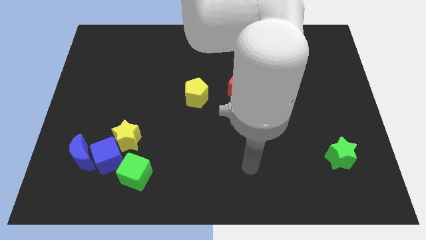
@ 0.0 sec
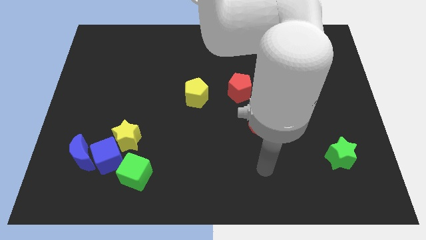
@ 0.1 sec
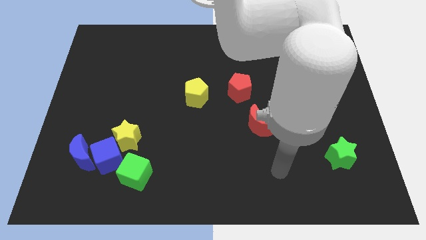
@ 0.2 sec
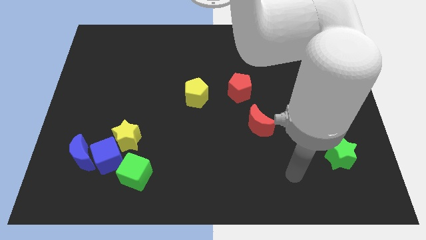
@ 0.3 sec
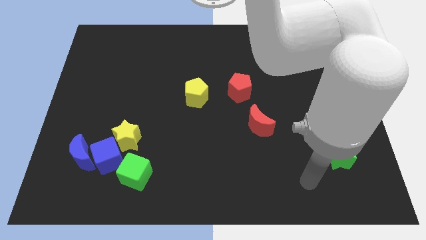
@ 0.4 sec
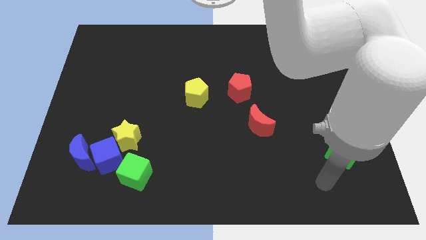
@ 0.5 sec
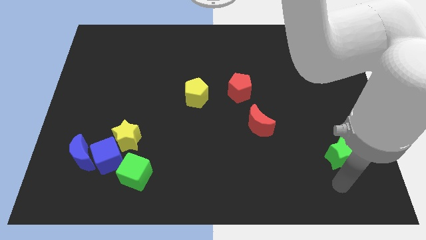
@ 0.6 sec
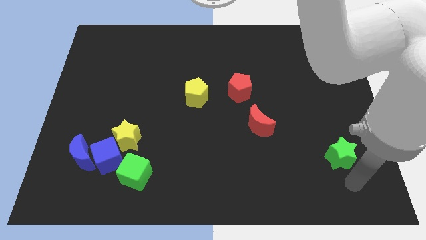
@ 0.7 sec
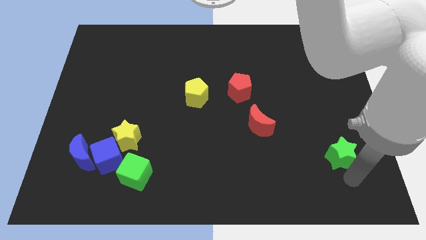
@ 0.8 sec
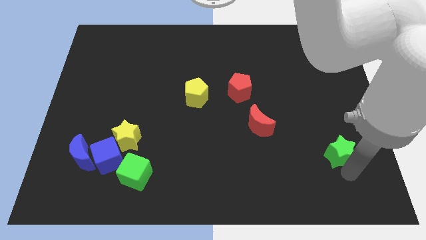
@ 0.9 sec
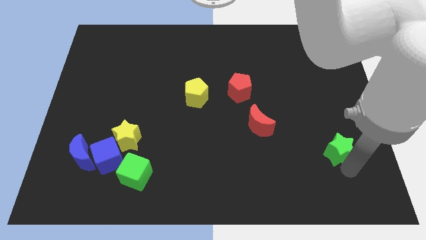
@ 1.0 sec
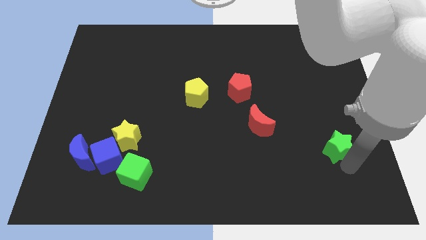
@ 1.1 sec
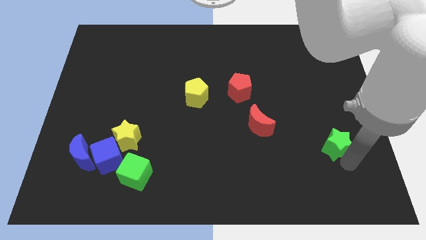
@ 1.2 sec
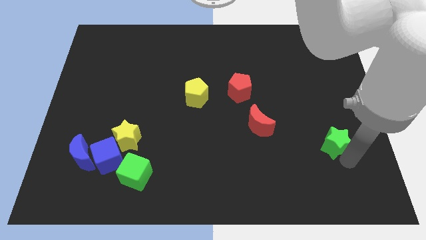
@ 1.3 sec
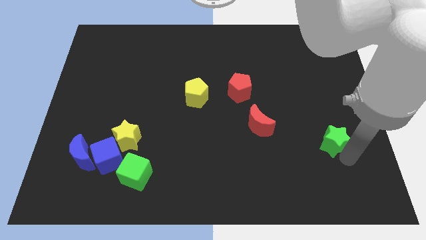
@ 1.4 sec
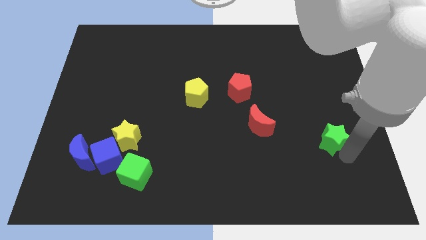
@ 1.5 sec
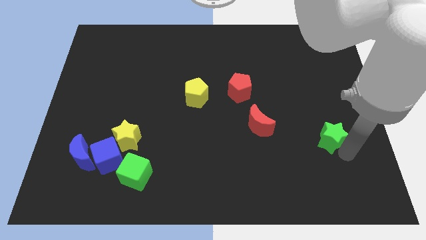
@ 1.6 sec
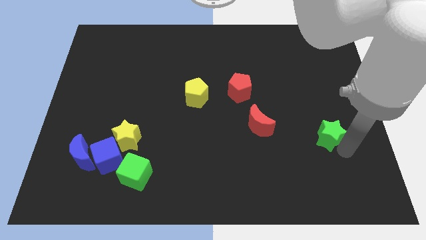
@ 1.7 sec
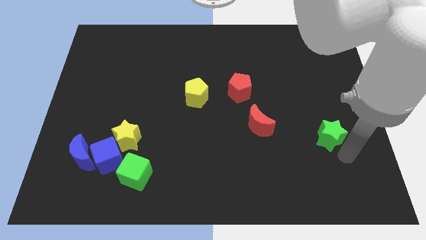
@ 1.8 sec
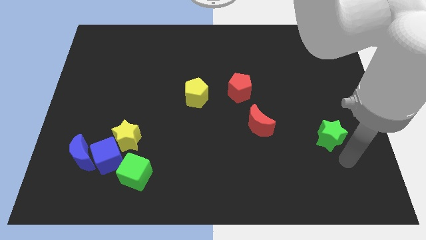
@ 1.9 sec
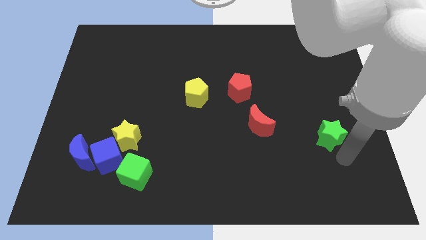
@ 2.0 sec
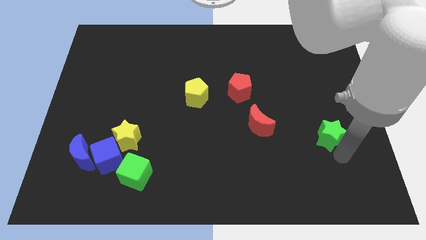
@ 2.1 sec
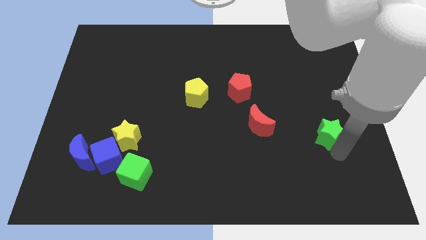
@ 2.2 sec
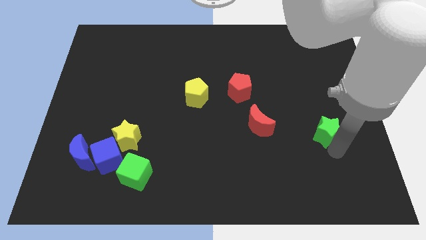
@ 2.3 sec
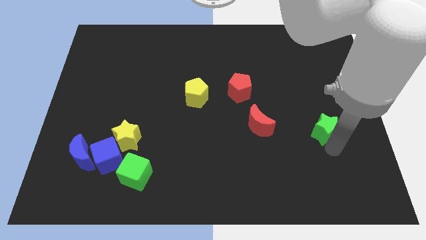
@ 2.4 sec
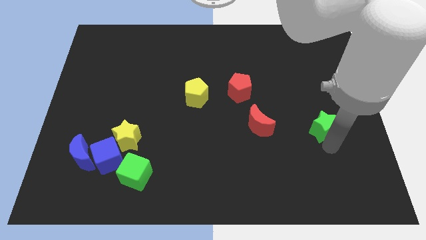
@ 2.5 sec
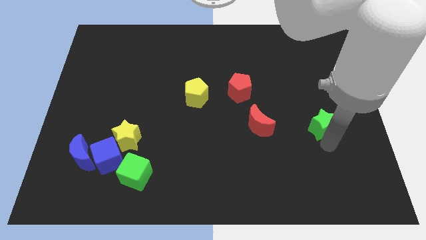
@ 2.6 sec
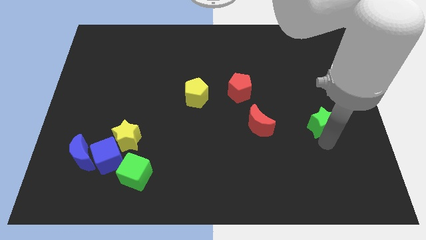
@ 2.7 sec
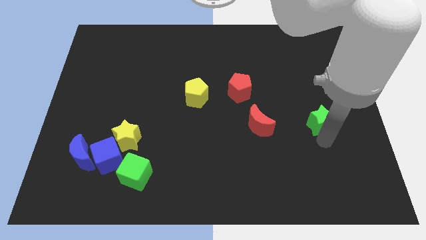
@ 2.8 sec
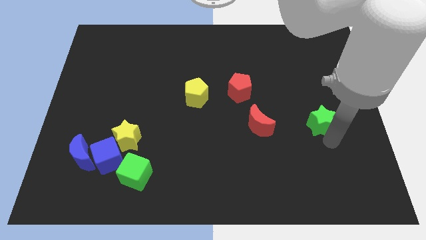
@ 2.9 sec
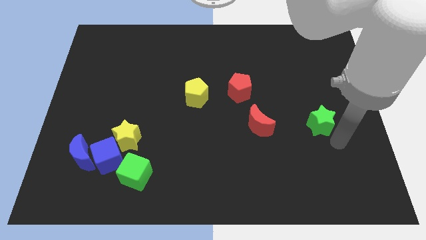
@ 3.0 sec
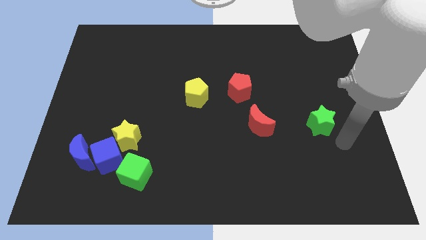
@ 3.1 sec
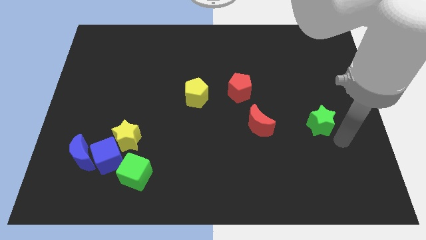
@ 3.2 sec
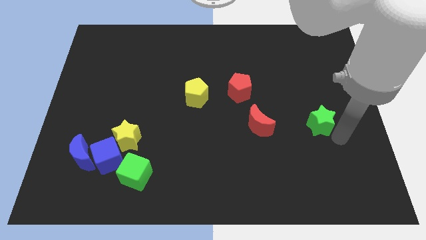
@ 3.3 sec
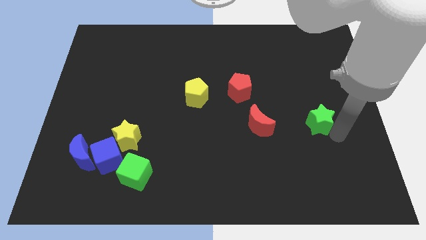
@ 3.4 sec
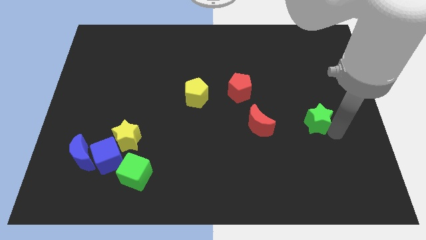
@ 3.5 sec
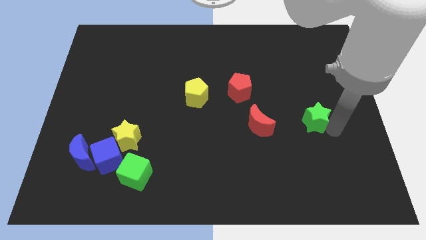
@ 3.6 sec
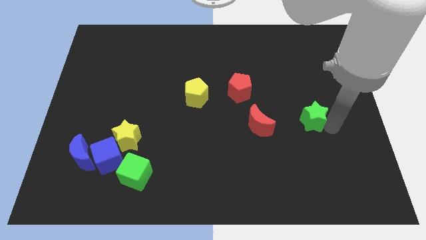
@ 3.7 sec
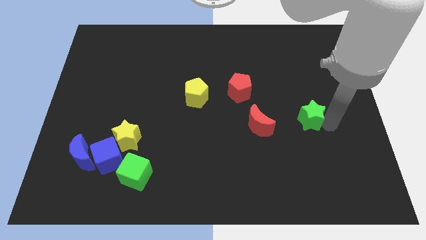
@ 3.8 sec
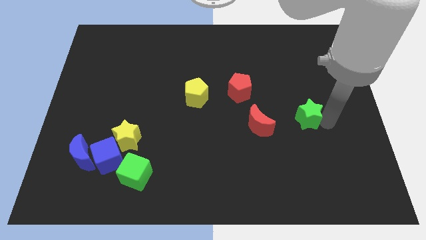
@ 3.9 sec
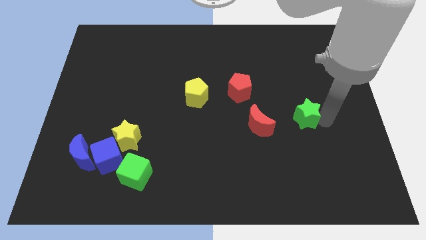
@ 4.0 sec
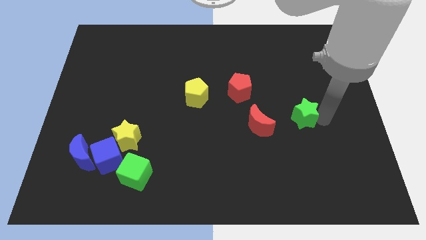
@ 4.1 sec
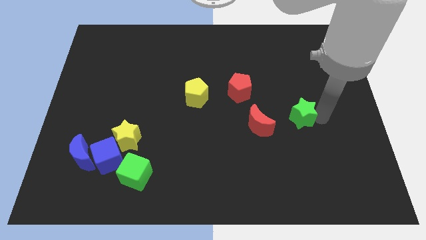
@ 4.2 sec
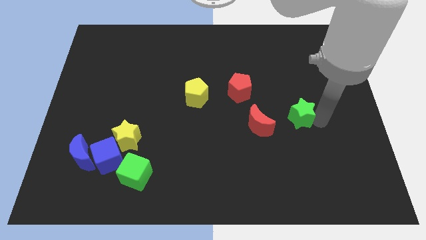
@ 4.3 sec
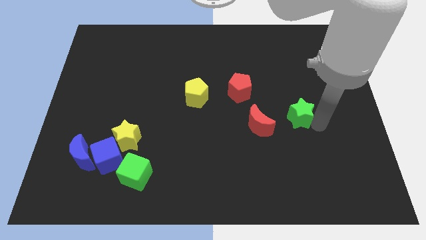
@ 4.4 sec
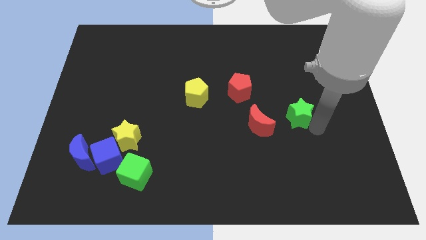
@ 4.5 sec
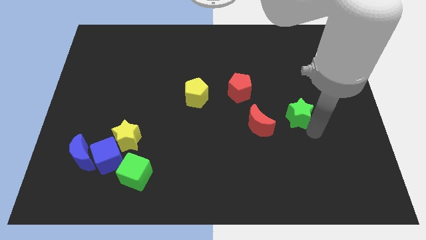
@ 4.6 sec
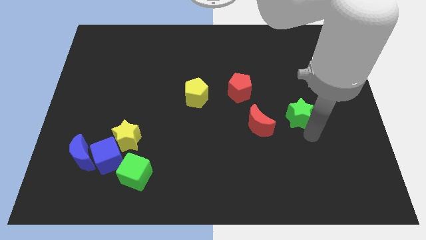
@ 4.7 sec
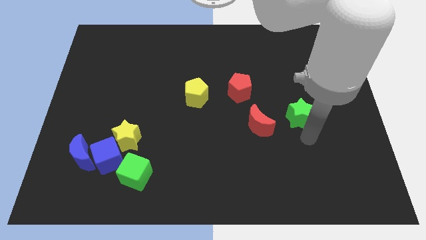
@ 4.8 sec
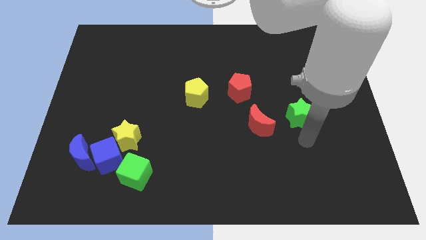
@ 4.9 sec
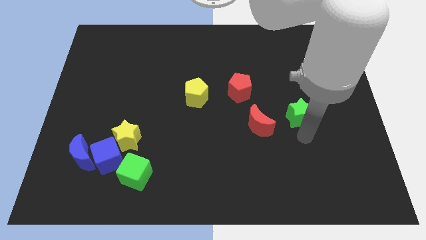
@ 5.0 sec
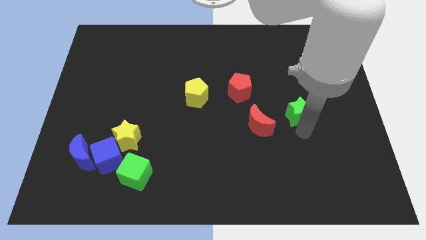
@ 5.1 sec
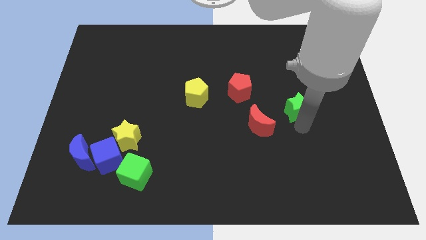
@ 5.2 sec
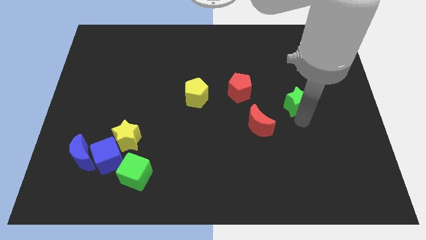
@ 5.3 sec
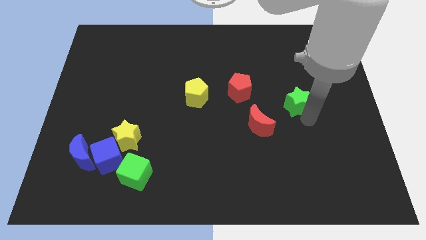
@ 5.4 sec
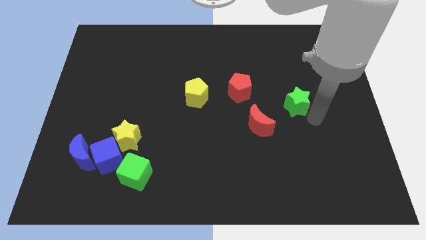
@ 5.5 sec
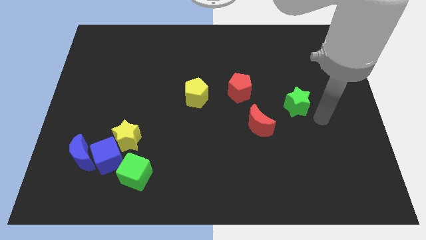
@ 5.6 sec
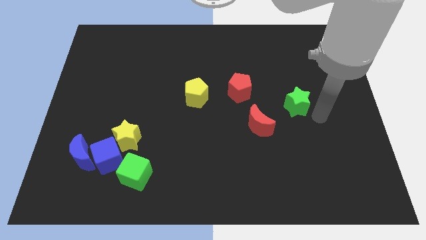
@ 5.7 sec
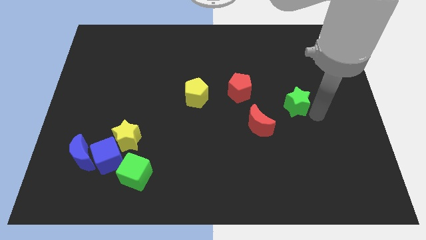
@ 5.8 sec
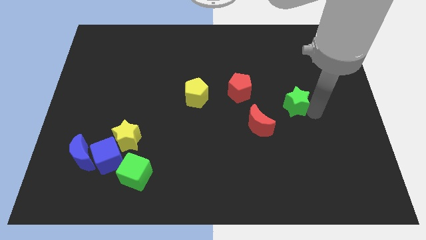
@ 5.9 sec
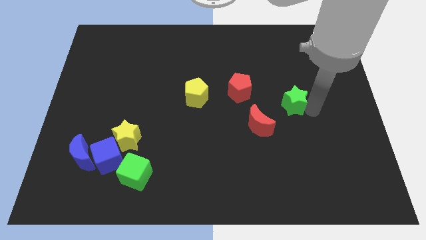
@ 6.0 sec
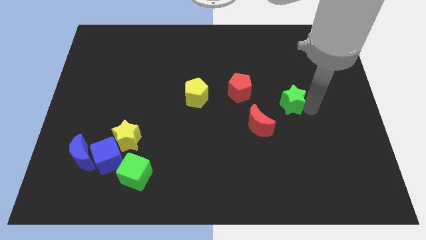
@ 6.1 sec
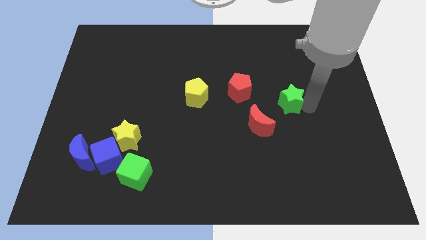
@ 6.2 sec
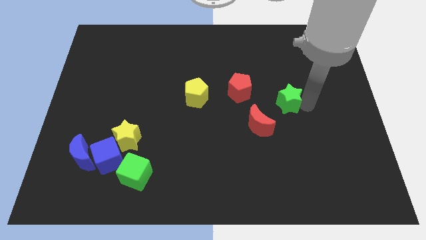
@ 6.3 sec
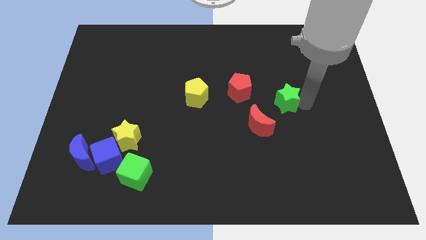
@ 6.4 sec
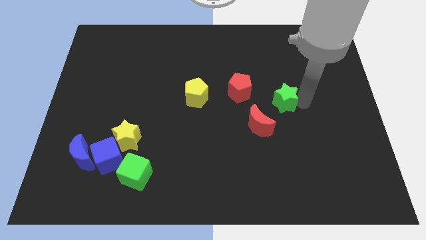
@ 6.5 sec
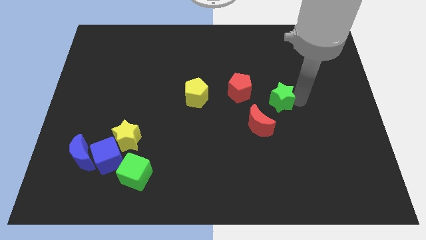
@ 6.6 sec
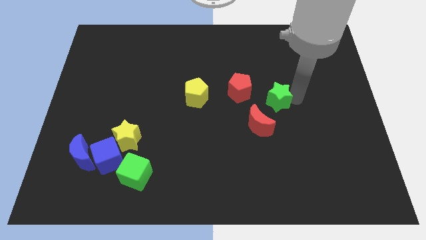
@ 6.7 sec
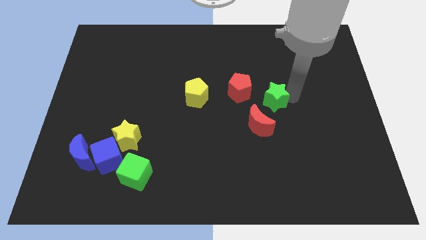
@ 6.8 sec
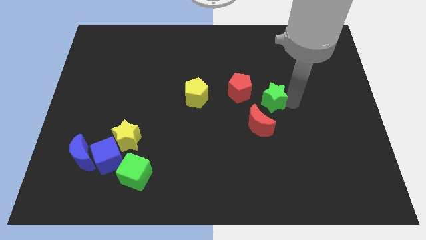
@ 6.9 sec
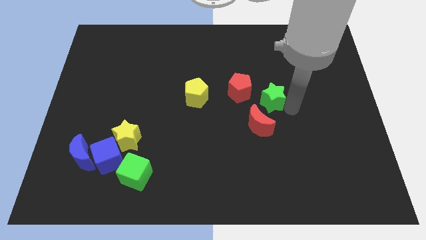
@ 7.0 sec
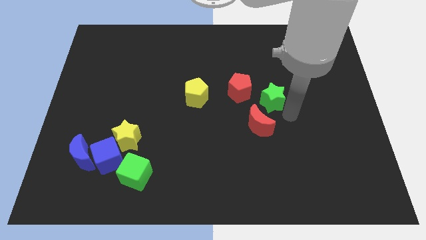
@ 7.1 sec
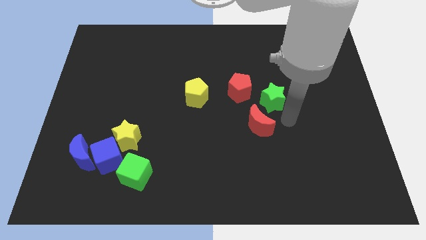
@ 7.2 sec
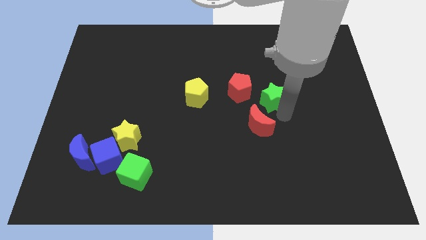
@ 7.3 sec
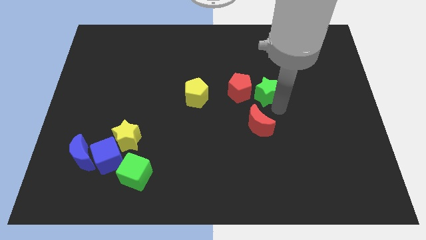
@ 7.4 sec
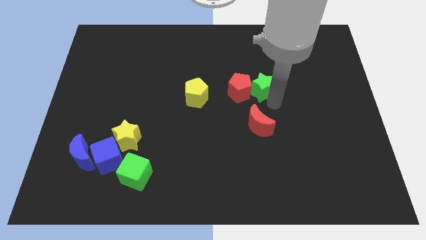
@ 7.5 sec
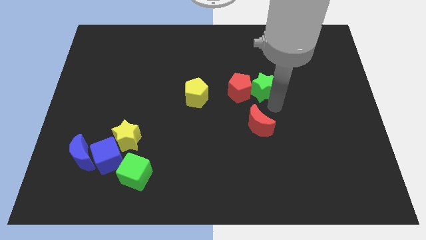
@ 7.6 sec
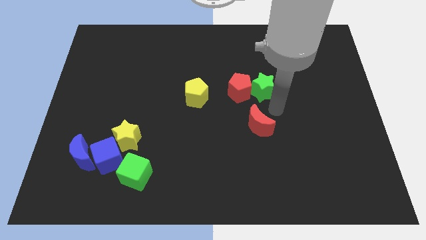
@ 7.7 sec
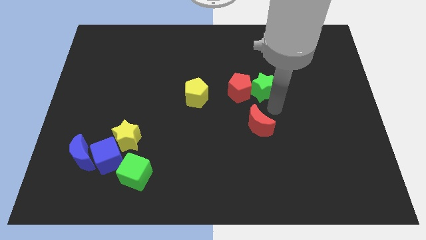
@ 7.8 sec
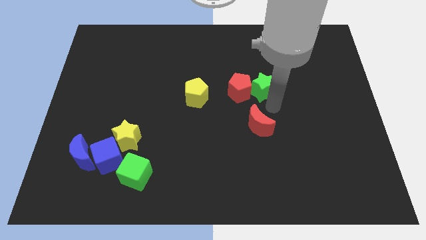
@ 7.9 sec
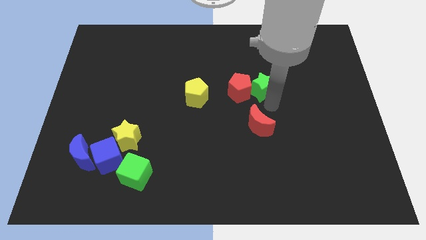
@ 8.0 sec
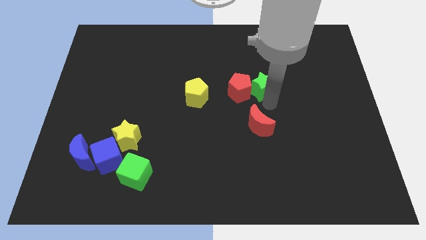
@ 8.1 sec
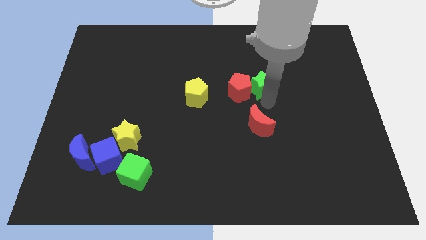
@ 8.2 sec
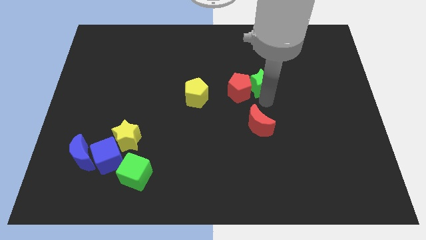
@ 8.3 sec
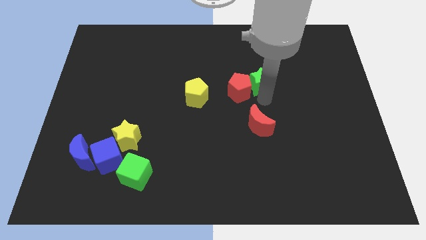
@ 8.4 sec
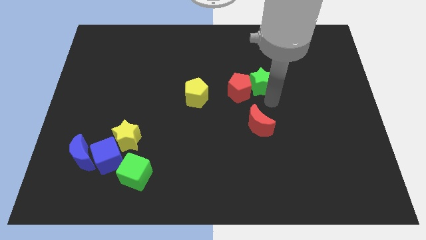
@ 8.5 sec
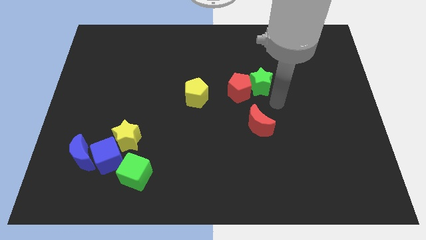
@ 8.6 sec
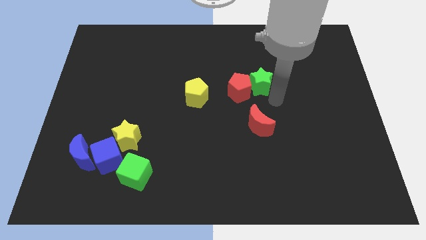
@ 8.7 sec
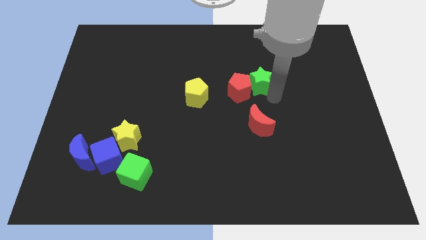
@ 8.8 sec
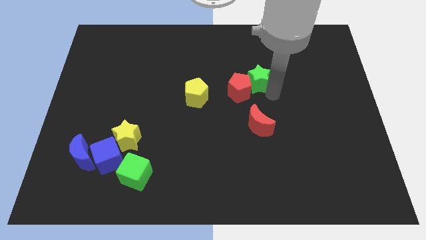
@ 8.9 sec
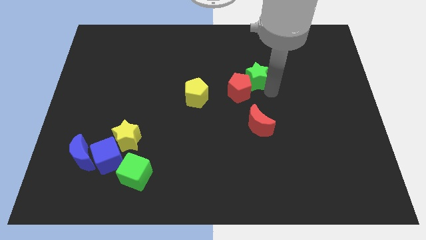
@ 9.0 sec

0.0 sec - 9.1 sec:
move the green star above the red pentagon
